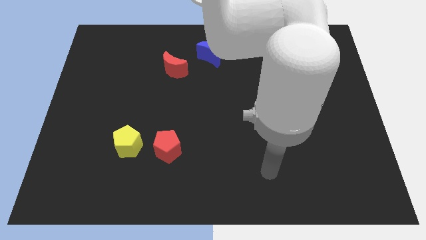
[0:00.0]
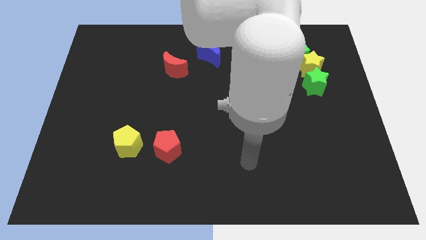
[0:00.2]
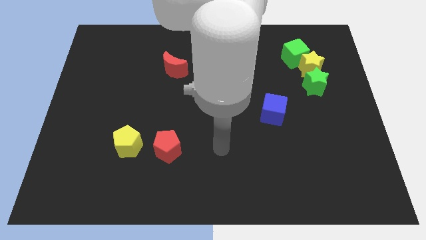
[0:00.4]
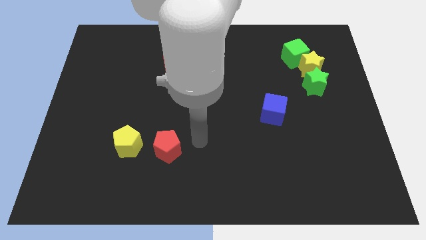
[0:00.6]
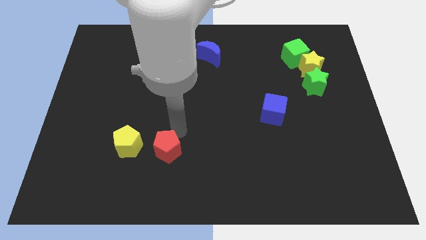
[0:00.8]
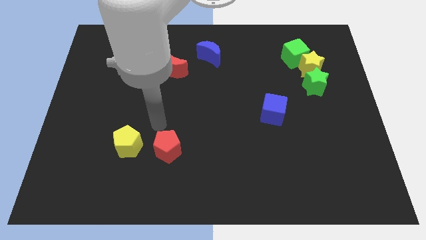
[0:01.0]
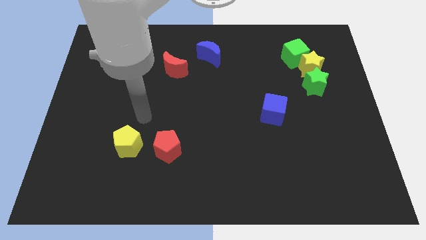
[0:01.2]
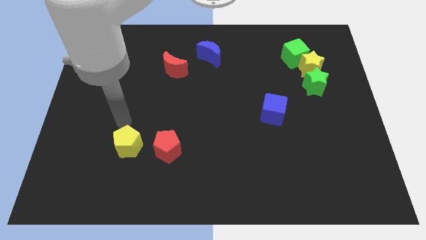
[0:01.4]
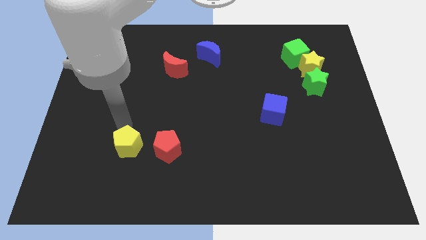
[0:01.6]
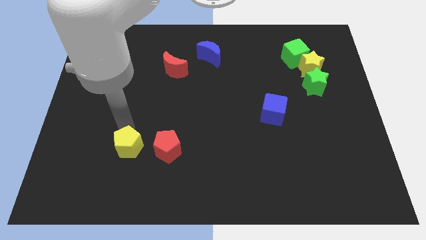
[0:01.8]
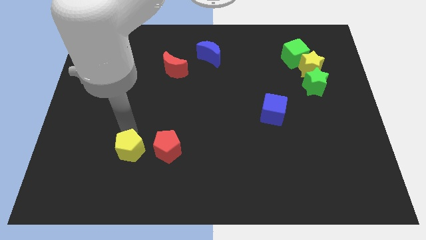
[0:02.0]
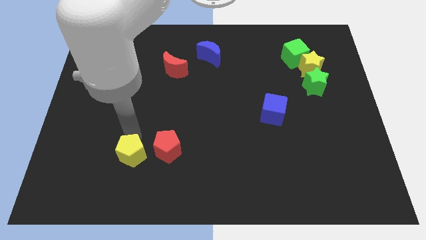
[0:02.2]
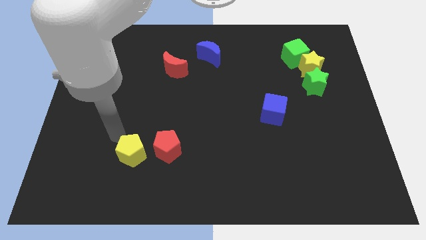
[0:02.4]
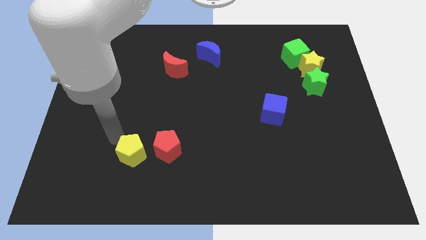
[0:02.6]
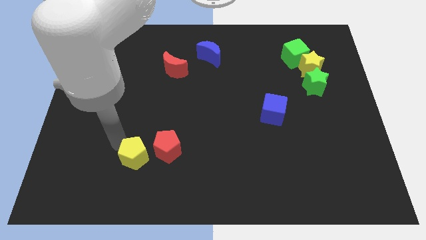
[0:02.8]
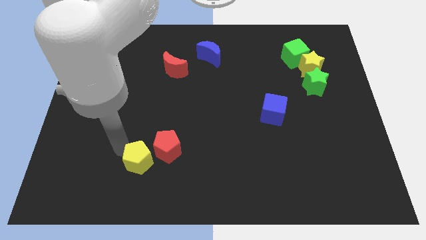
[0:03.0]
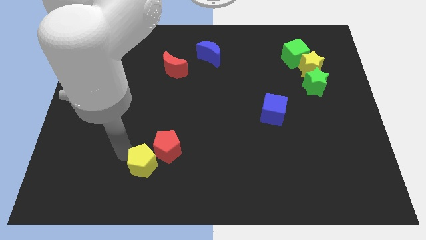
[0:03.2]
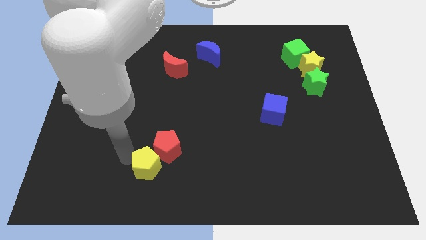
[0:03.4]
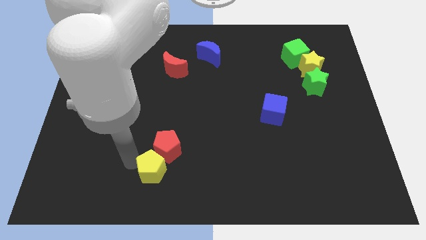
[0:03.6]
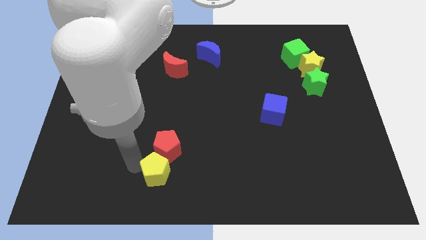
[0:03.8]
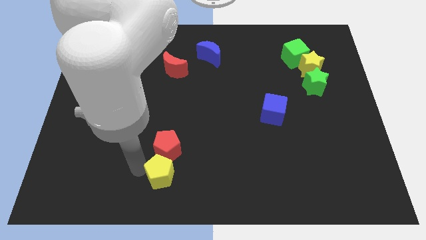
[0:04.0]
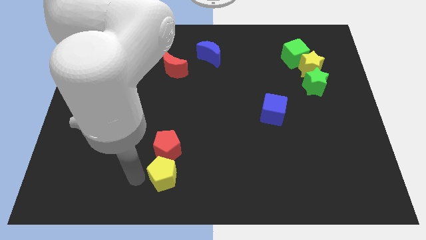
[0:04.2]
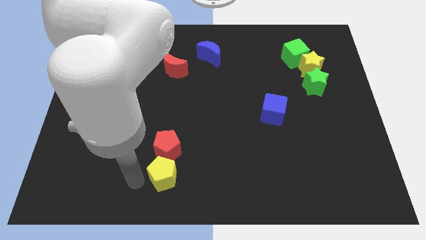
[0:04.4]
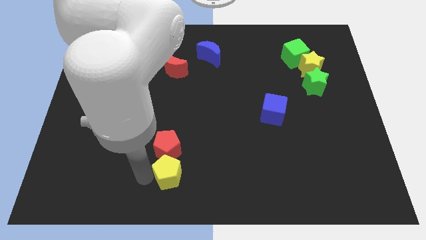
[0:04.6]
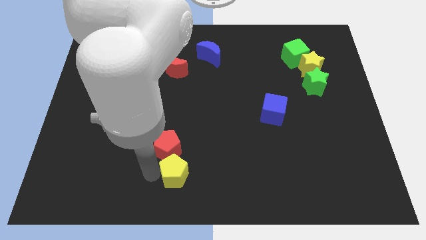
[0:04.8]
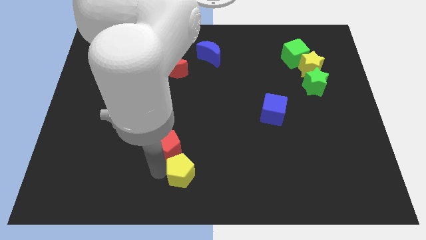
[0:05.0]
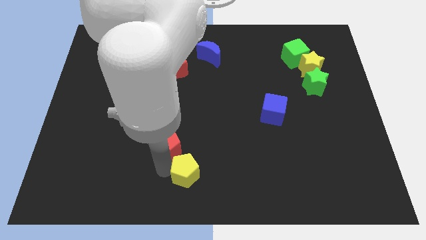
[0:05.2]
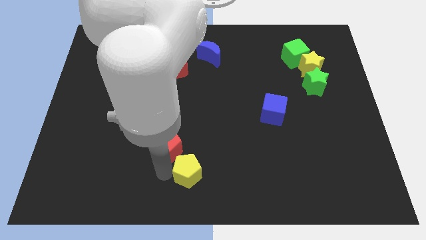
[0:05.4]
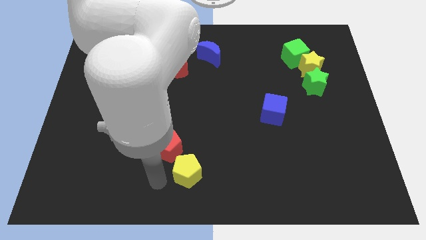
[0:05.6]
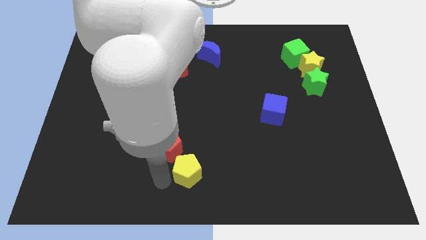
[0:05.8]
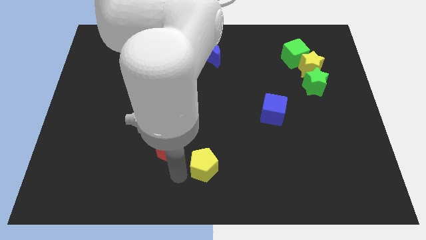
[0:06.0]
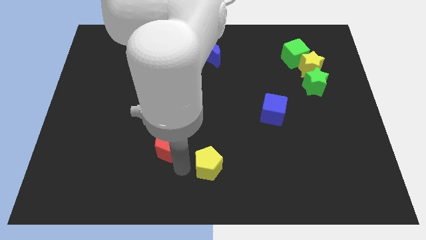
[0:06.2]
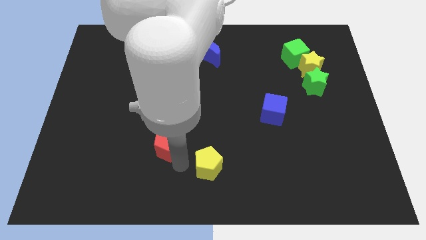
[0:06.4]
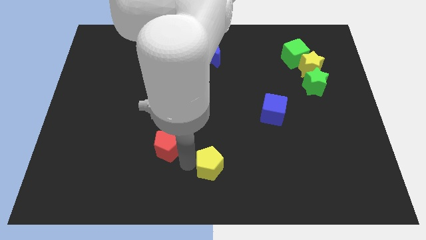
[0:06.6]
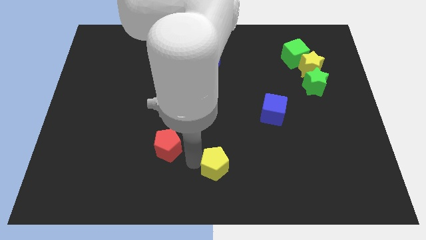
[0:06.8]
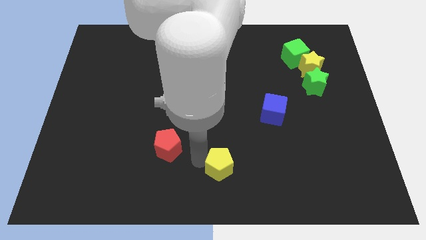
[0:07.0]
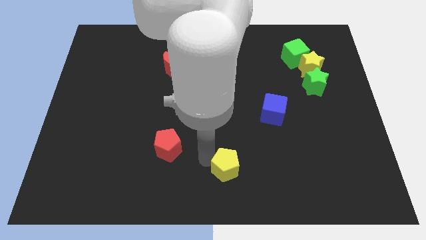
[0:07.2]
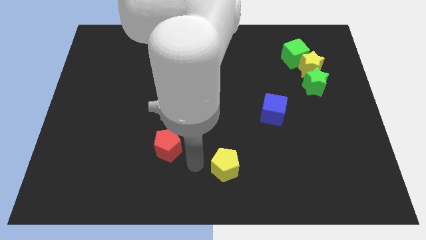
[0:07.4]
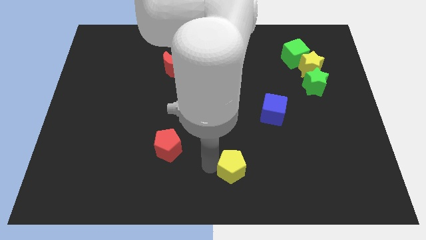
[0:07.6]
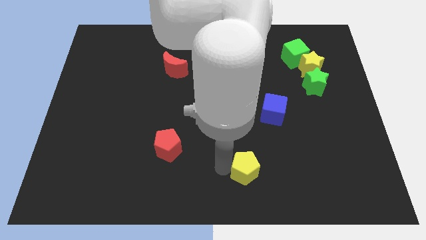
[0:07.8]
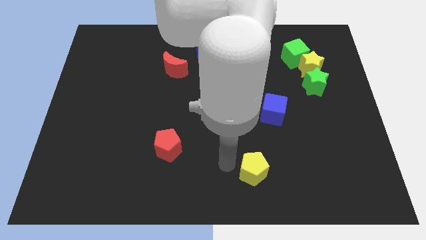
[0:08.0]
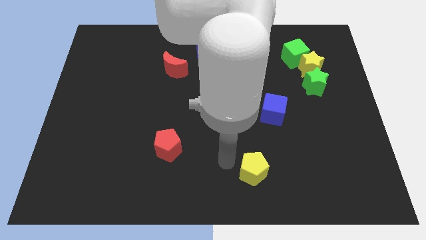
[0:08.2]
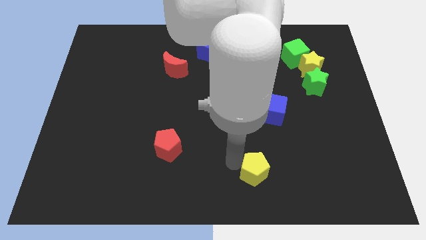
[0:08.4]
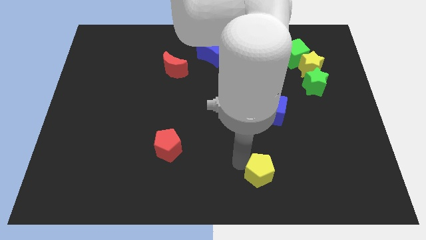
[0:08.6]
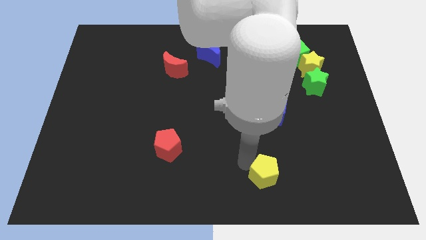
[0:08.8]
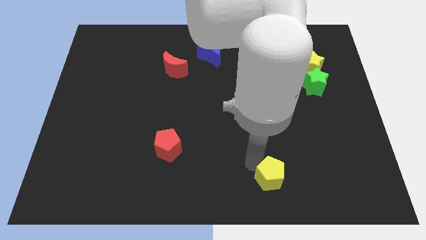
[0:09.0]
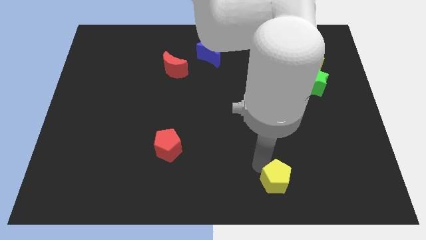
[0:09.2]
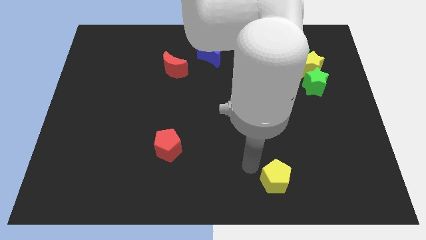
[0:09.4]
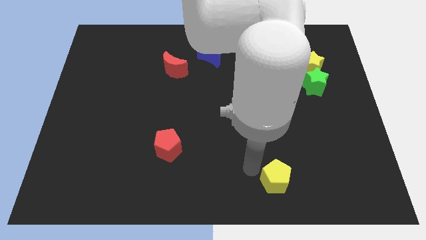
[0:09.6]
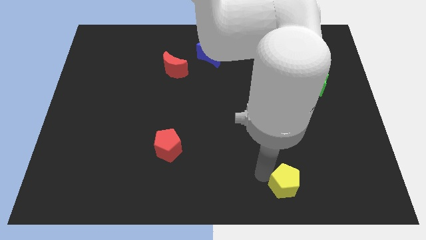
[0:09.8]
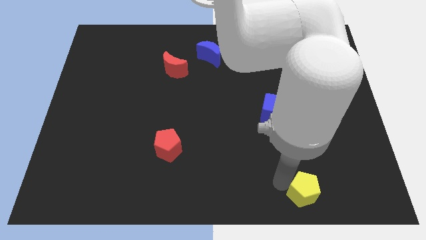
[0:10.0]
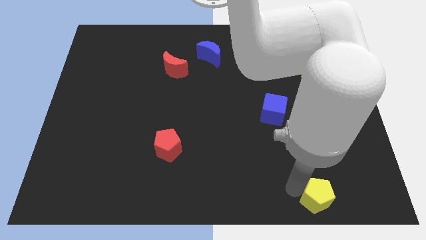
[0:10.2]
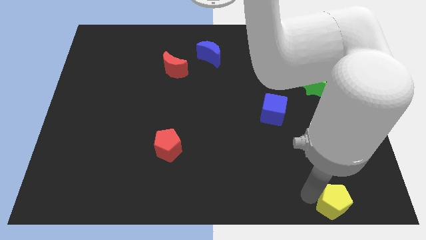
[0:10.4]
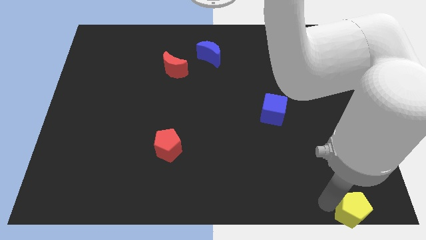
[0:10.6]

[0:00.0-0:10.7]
slide the yellow pentagon to the bottom right

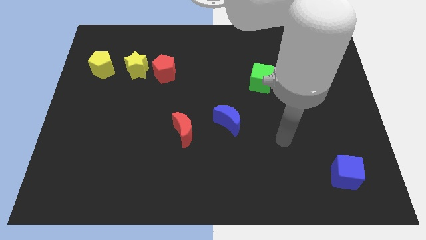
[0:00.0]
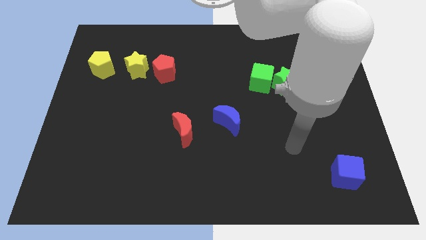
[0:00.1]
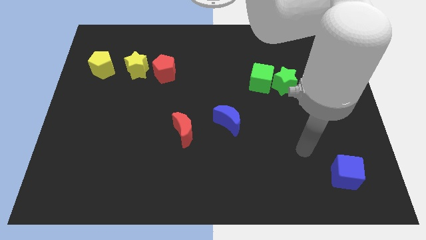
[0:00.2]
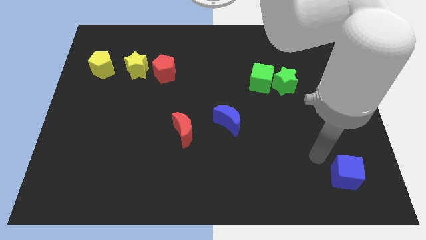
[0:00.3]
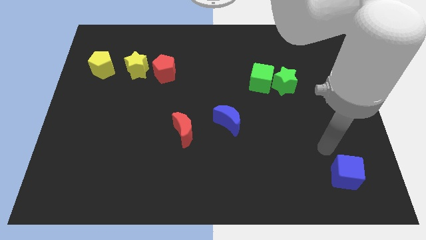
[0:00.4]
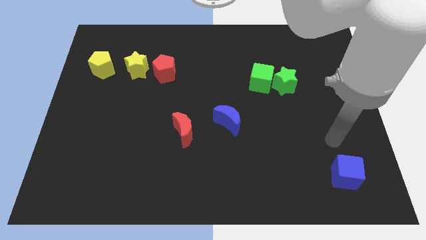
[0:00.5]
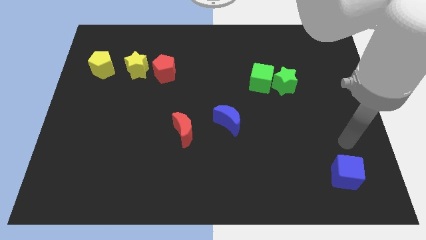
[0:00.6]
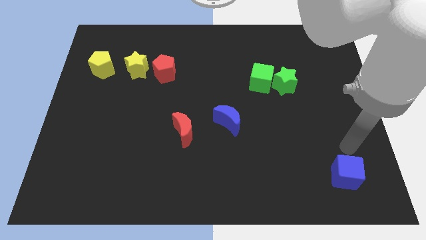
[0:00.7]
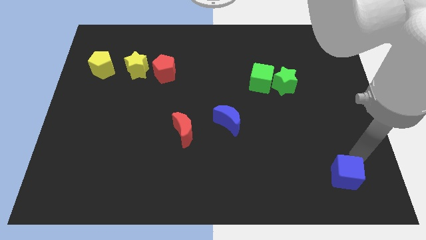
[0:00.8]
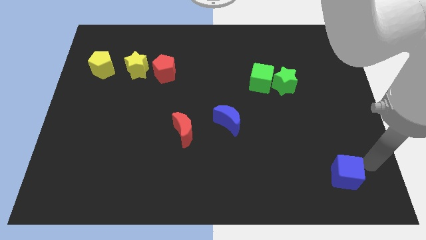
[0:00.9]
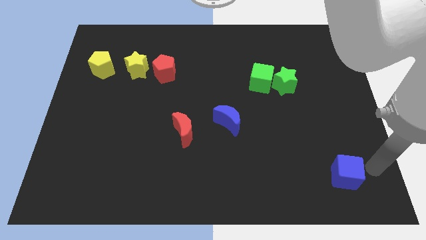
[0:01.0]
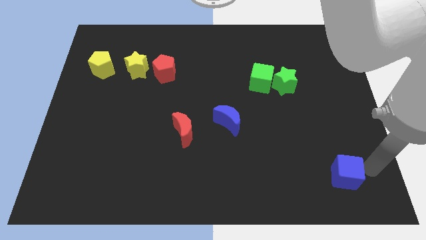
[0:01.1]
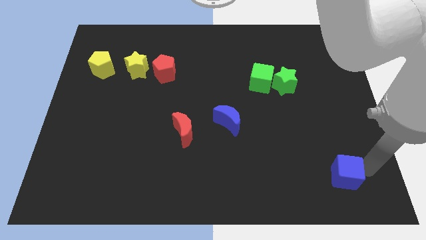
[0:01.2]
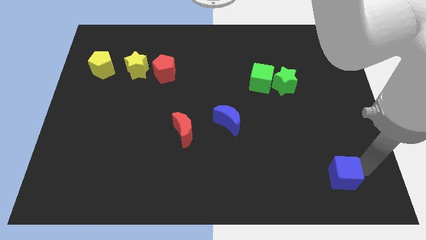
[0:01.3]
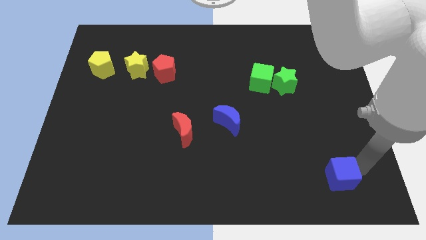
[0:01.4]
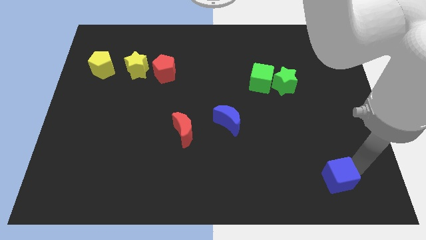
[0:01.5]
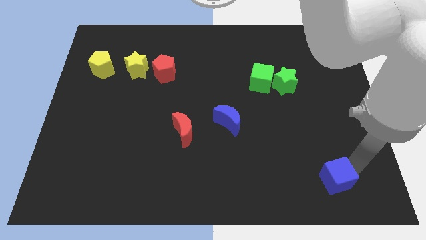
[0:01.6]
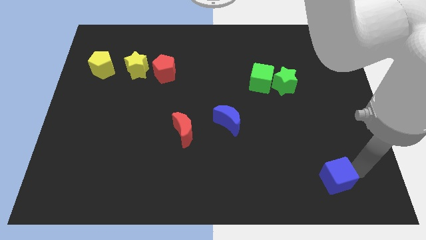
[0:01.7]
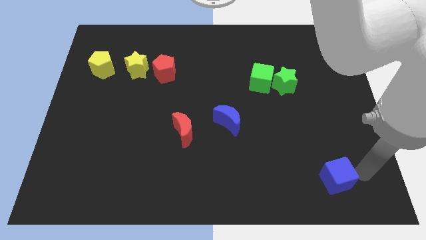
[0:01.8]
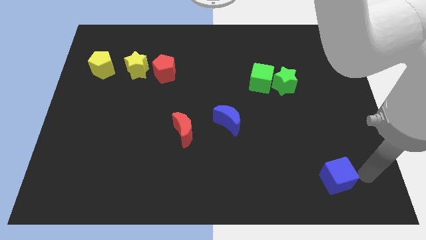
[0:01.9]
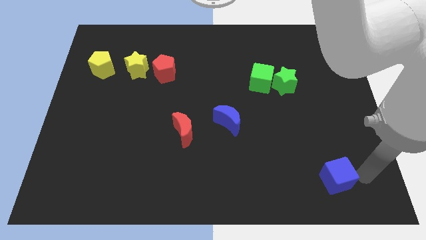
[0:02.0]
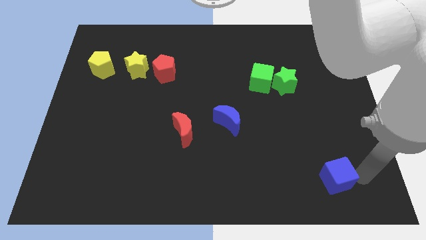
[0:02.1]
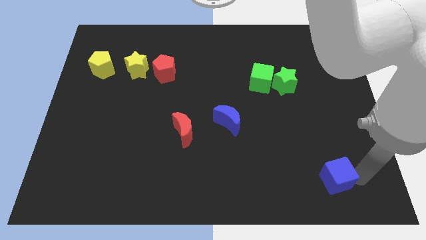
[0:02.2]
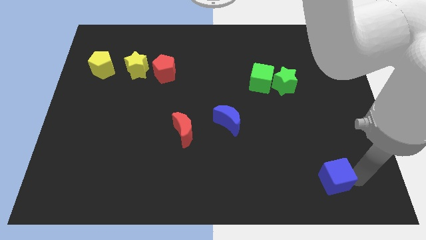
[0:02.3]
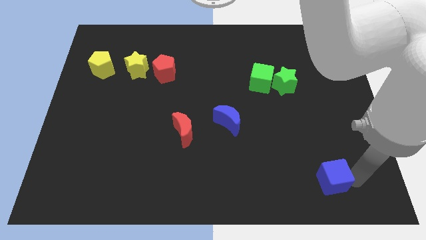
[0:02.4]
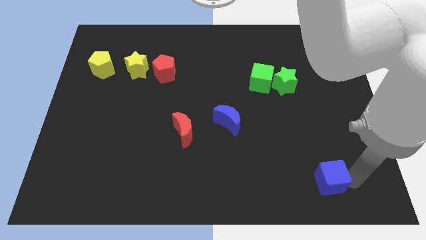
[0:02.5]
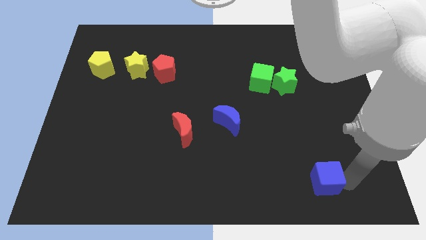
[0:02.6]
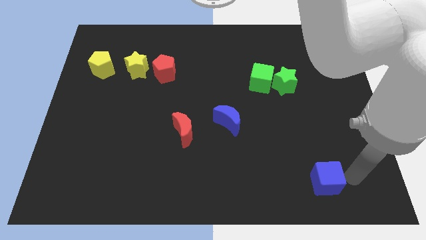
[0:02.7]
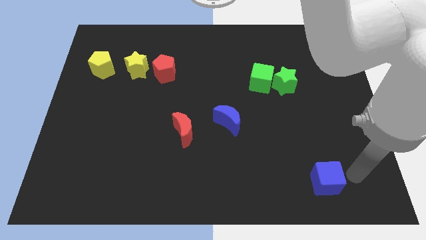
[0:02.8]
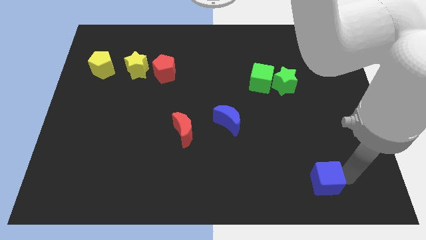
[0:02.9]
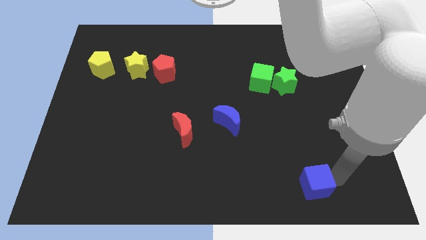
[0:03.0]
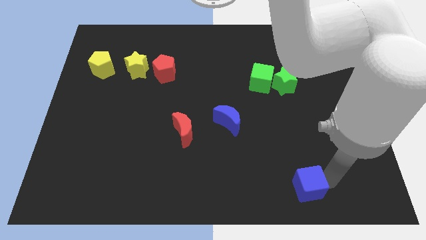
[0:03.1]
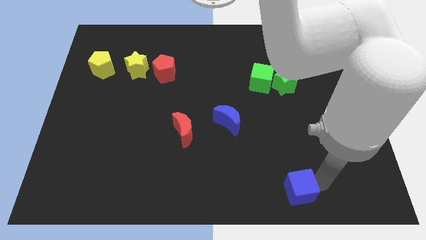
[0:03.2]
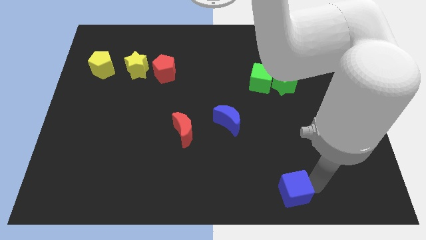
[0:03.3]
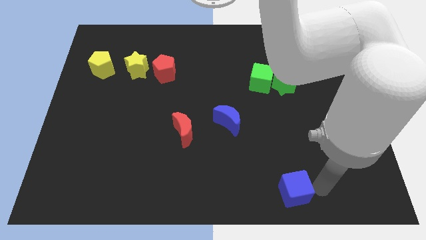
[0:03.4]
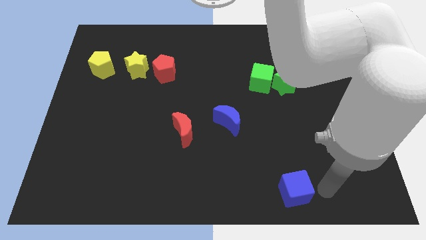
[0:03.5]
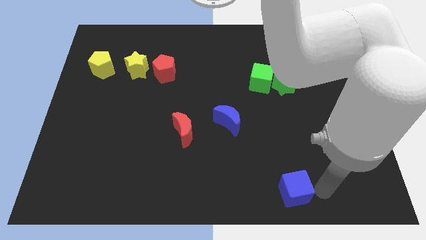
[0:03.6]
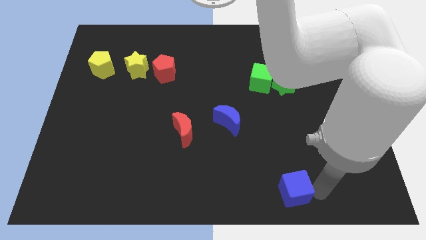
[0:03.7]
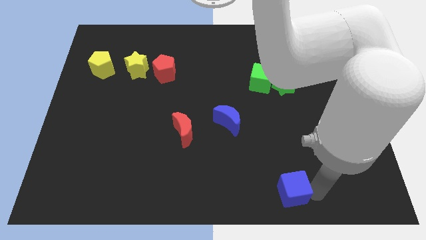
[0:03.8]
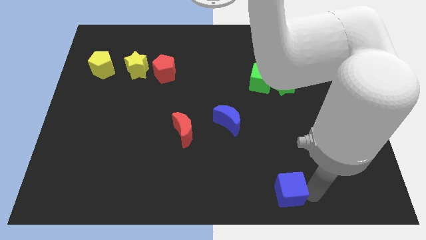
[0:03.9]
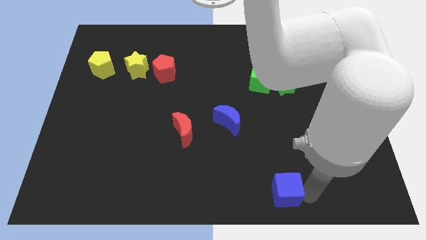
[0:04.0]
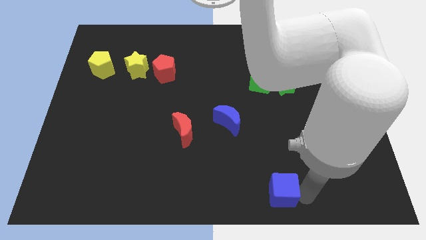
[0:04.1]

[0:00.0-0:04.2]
push the blue cube to the bottom side
